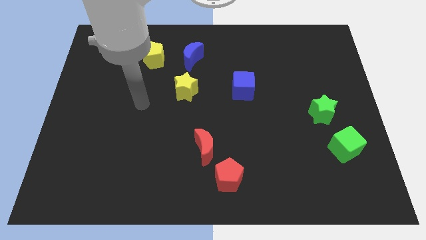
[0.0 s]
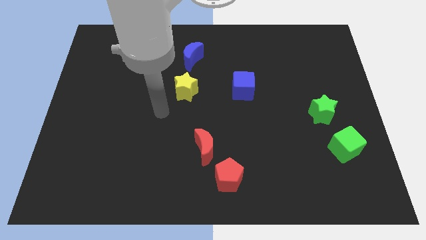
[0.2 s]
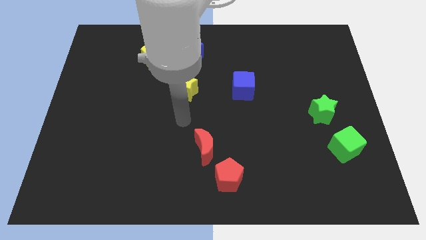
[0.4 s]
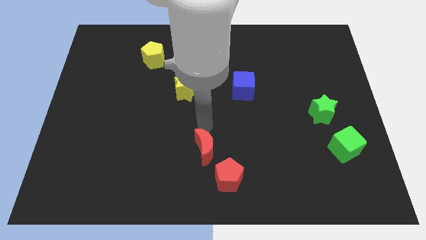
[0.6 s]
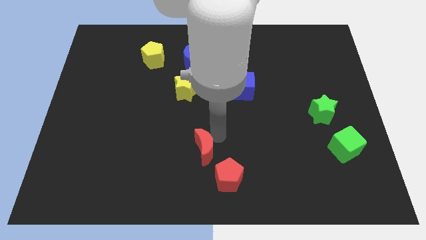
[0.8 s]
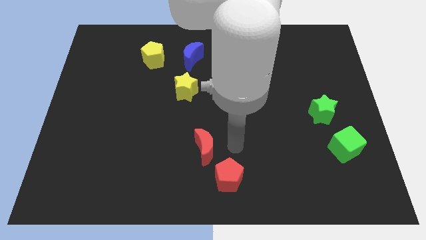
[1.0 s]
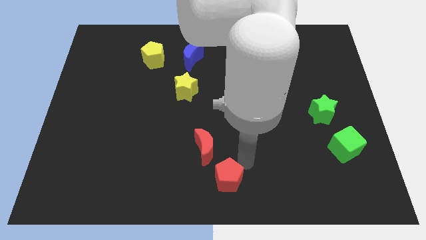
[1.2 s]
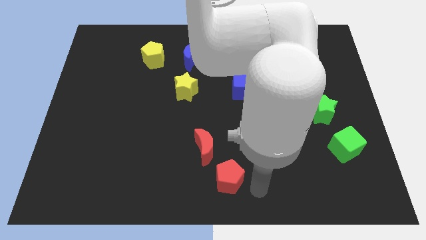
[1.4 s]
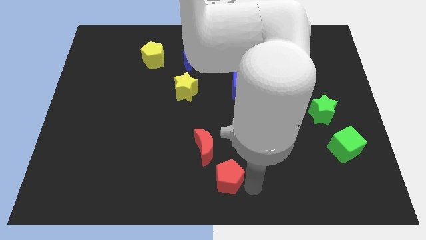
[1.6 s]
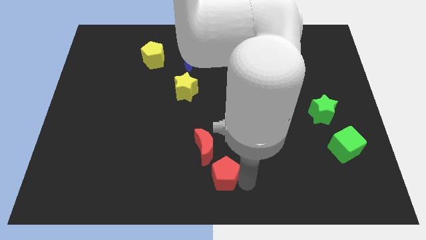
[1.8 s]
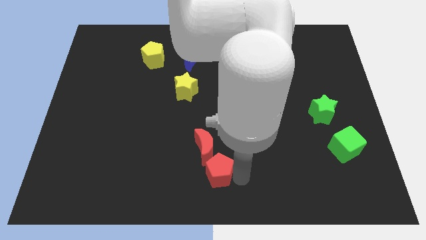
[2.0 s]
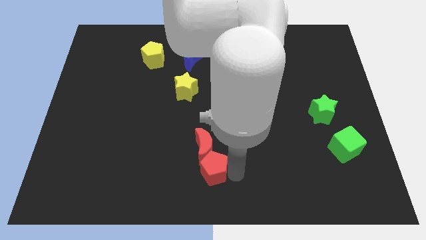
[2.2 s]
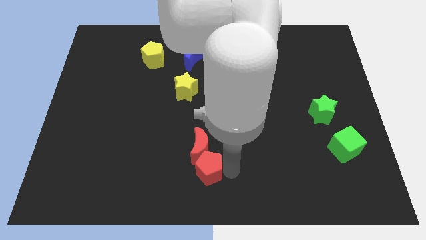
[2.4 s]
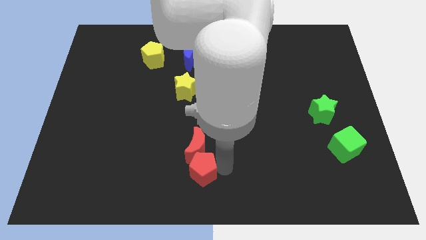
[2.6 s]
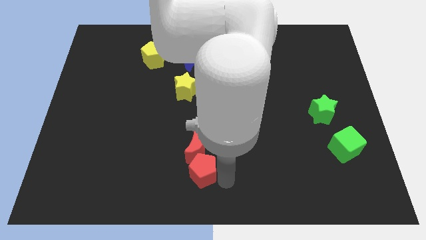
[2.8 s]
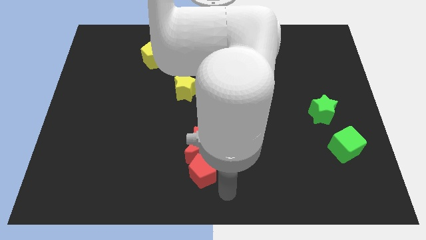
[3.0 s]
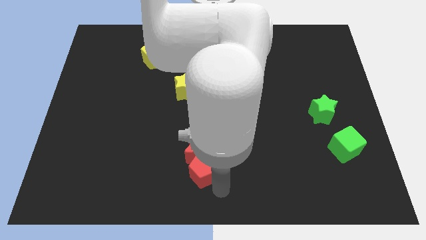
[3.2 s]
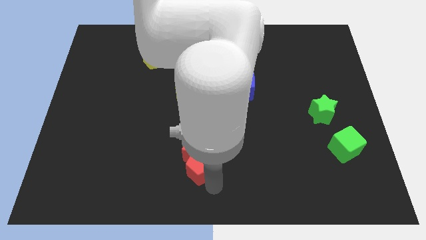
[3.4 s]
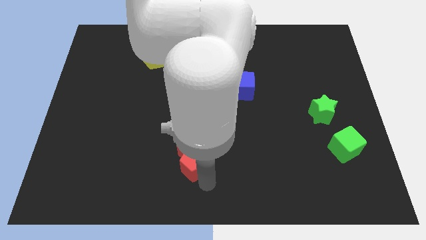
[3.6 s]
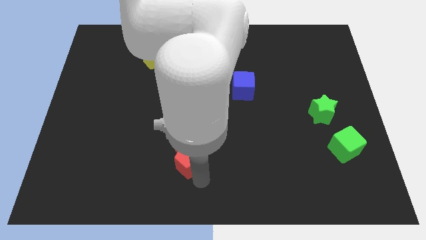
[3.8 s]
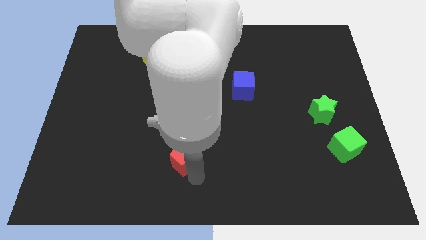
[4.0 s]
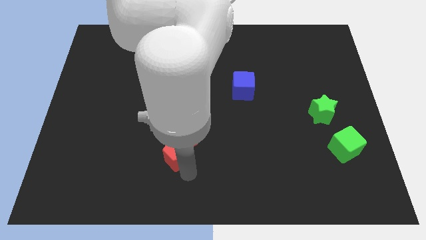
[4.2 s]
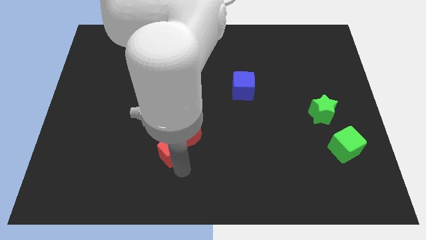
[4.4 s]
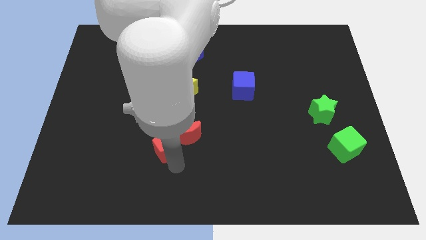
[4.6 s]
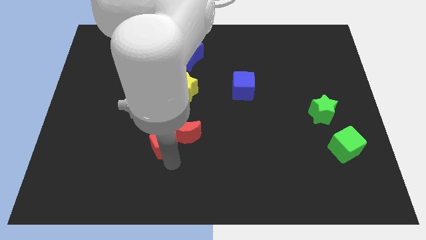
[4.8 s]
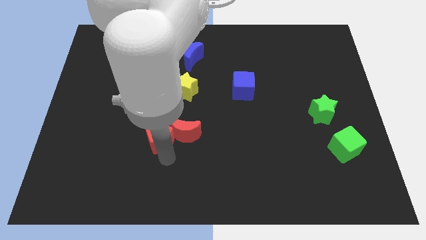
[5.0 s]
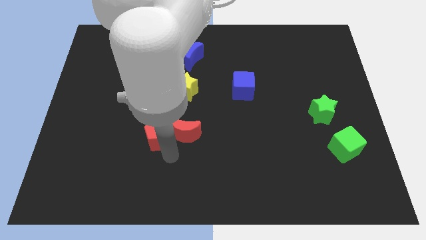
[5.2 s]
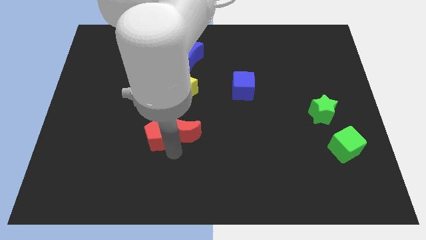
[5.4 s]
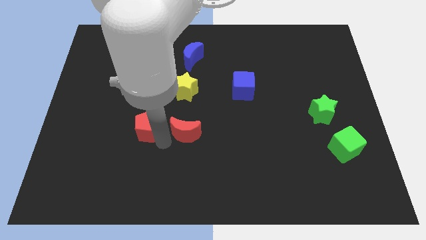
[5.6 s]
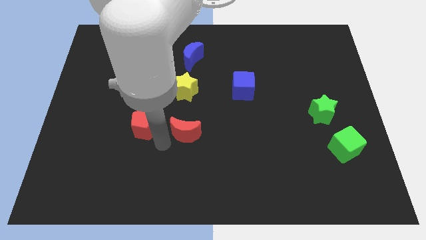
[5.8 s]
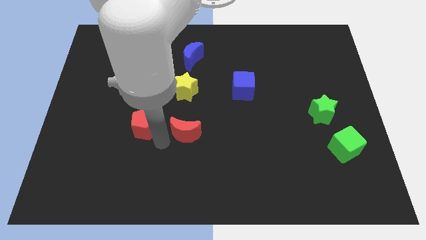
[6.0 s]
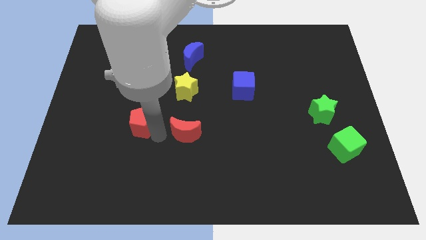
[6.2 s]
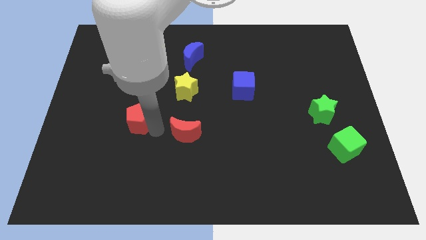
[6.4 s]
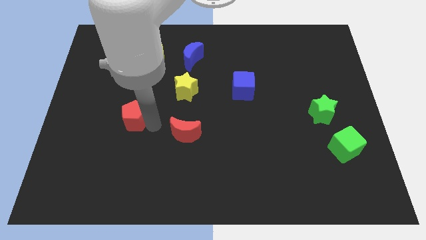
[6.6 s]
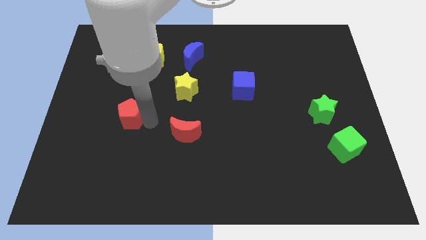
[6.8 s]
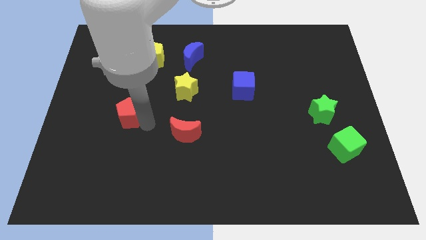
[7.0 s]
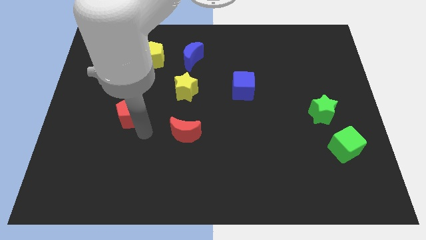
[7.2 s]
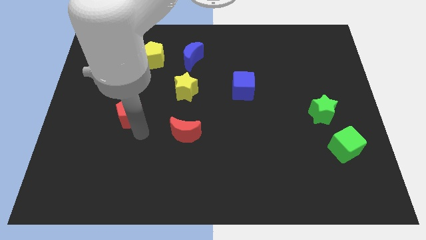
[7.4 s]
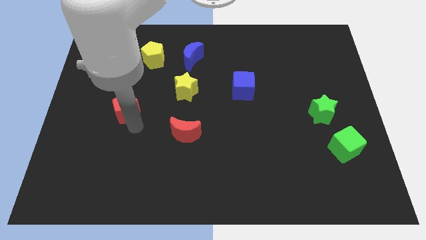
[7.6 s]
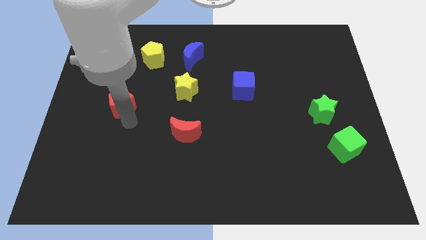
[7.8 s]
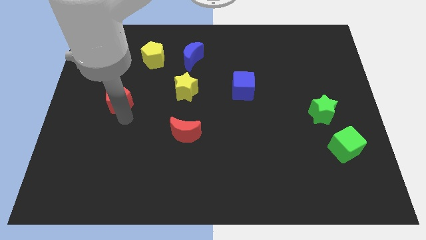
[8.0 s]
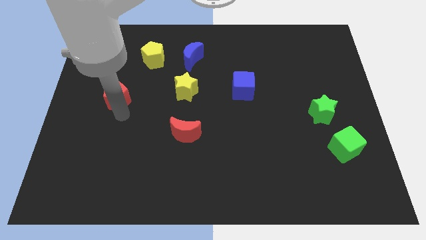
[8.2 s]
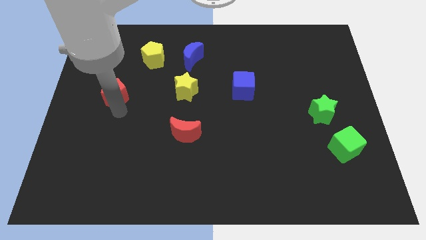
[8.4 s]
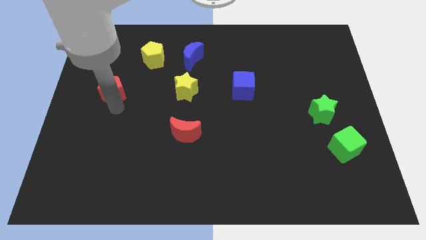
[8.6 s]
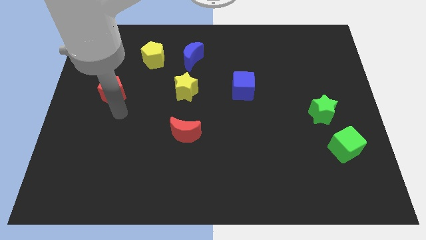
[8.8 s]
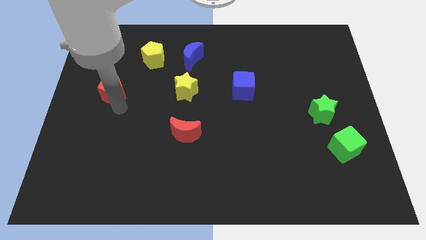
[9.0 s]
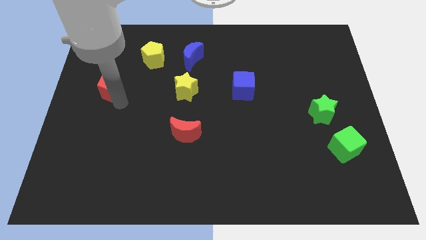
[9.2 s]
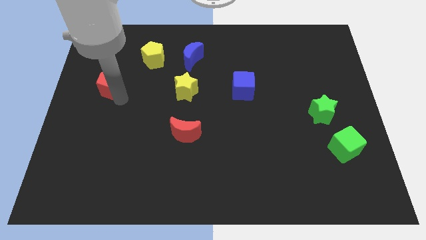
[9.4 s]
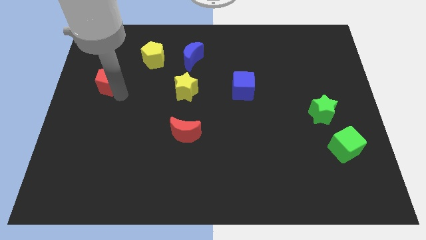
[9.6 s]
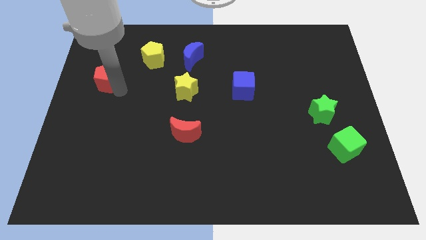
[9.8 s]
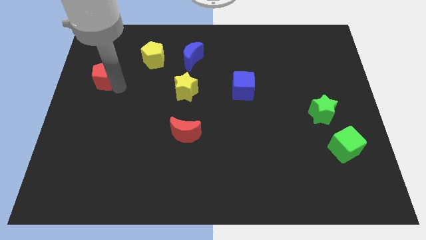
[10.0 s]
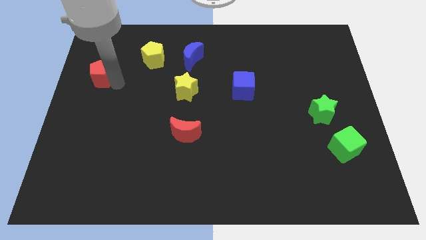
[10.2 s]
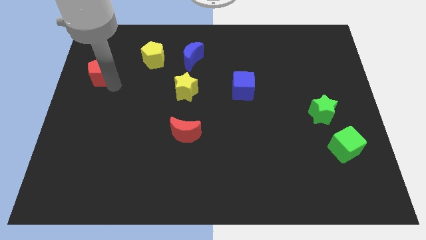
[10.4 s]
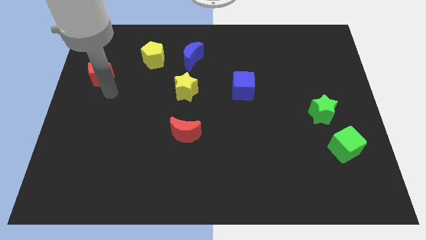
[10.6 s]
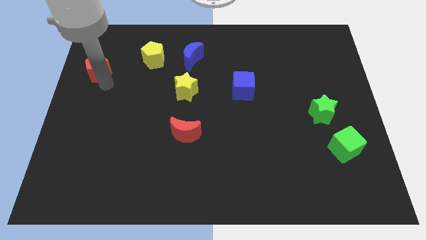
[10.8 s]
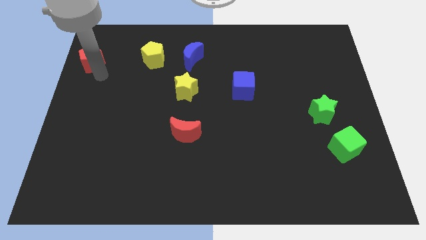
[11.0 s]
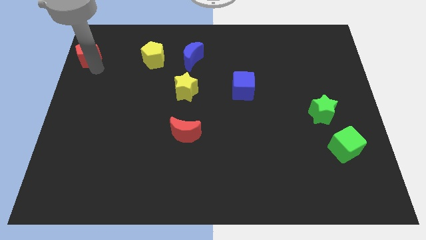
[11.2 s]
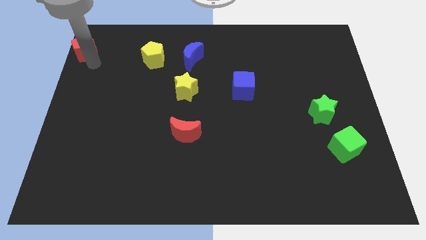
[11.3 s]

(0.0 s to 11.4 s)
move the red pentagon to the top left of the board
